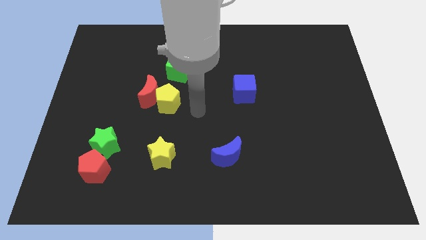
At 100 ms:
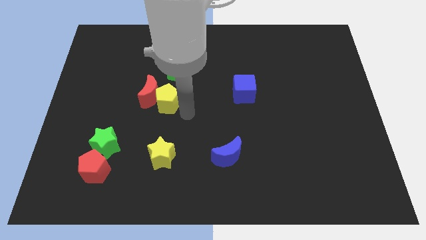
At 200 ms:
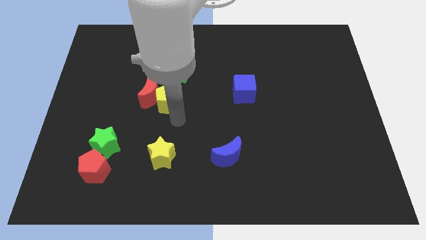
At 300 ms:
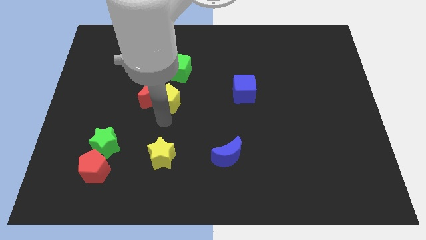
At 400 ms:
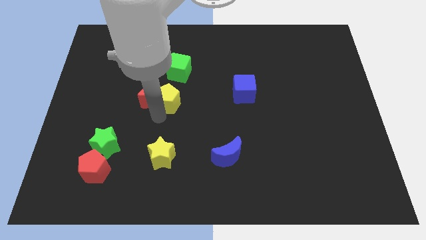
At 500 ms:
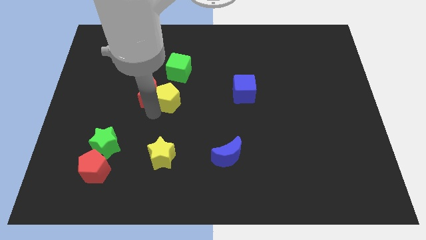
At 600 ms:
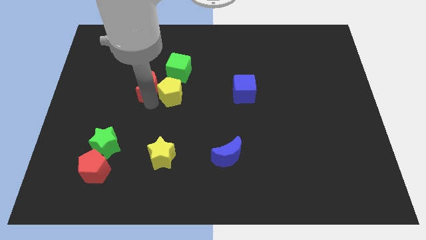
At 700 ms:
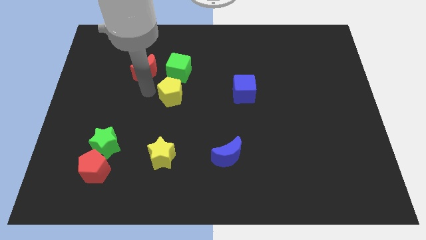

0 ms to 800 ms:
separate the yellow pentagon from the red moon

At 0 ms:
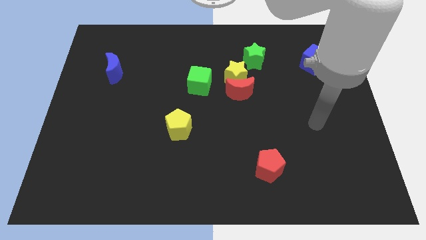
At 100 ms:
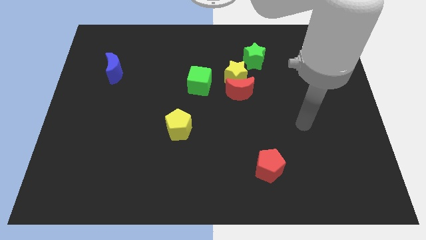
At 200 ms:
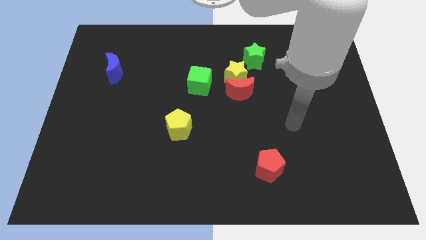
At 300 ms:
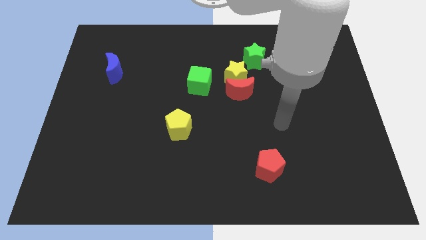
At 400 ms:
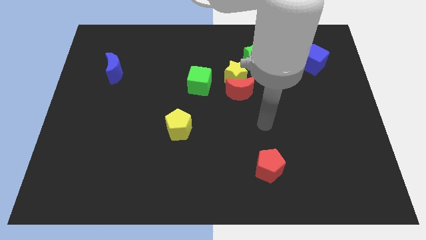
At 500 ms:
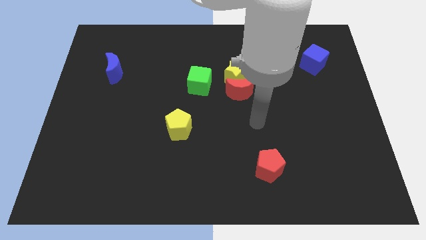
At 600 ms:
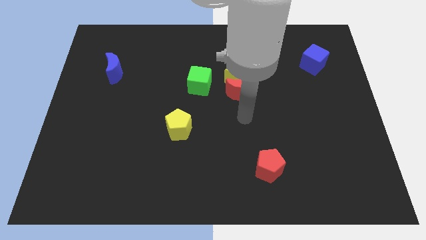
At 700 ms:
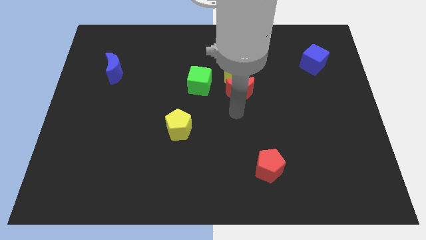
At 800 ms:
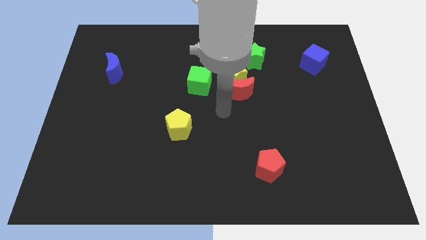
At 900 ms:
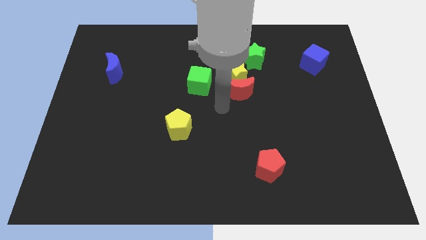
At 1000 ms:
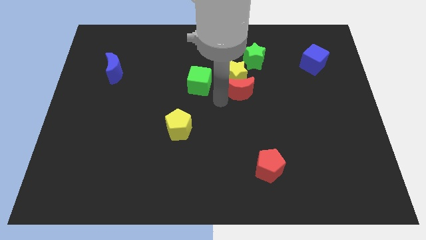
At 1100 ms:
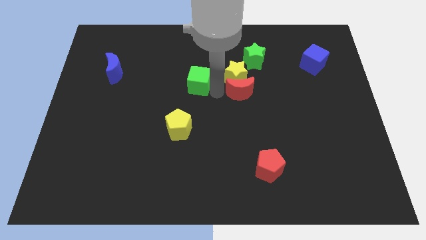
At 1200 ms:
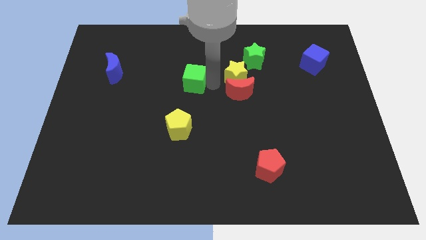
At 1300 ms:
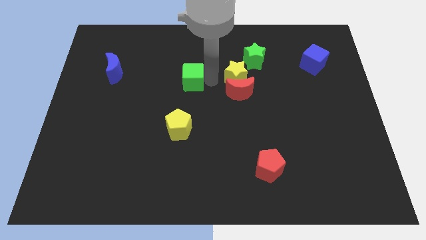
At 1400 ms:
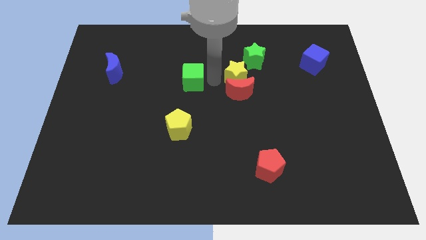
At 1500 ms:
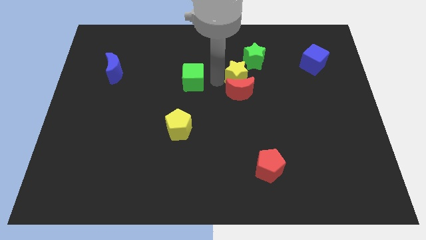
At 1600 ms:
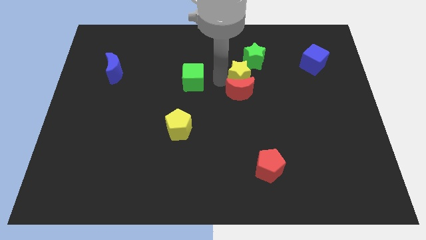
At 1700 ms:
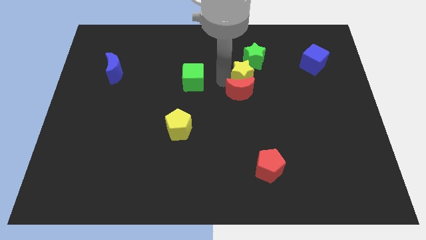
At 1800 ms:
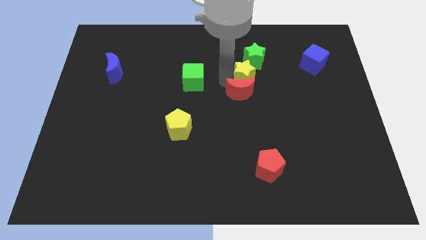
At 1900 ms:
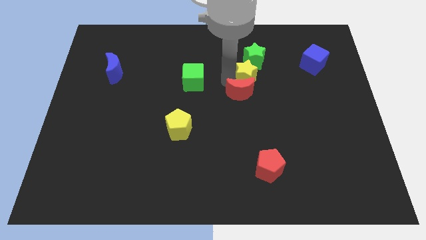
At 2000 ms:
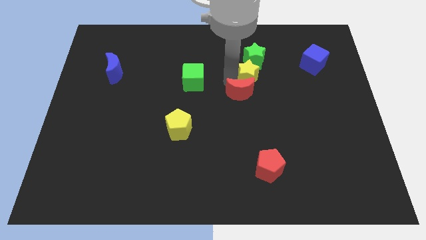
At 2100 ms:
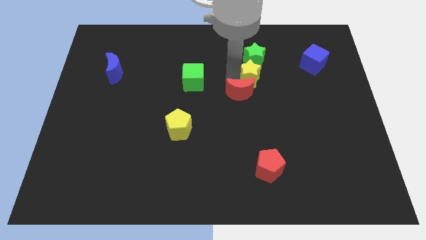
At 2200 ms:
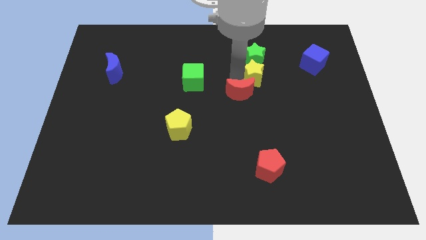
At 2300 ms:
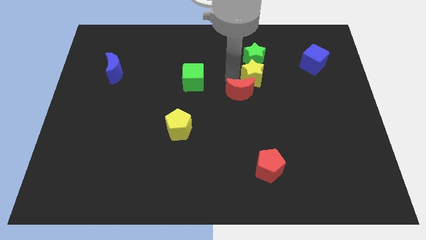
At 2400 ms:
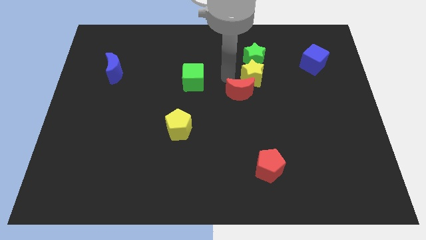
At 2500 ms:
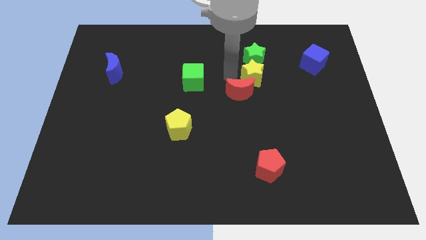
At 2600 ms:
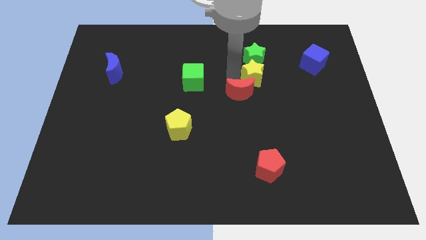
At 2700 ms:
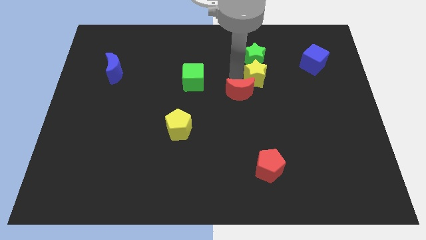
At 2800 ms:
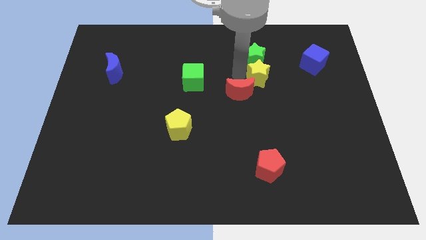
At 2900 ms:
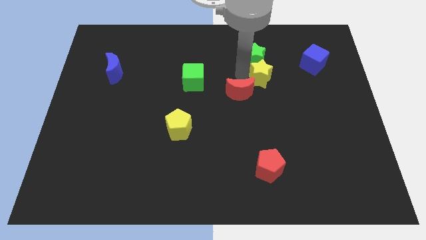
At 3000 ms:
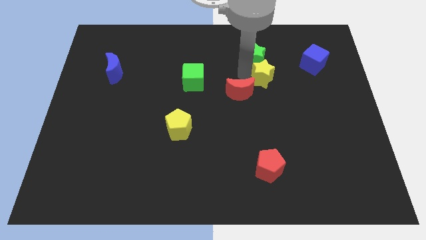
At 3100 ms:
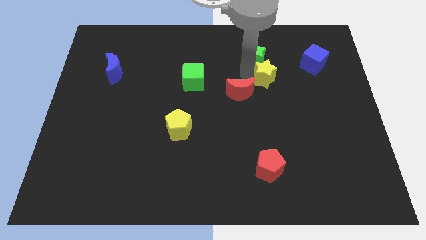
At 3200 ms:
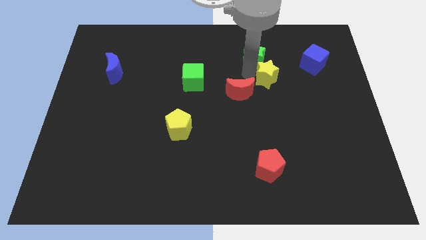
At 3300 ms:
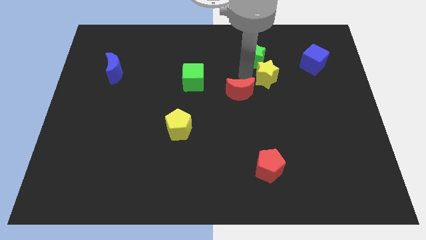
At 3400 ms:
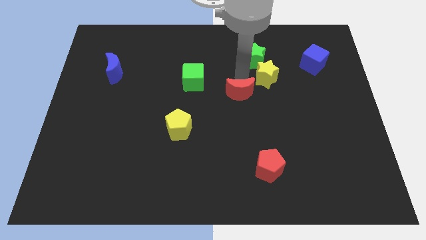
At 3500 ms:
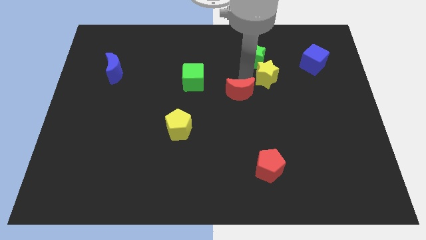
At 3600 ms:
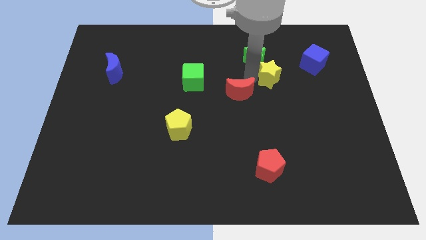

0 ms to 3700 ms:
separate the yellow star from the red moon, green star, and green cube

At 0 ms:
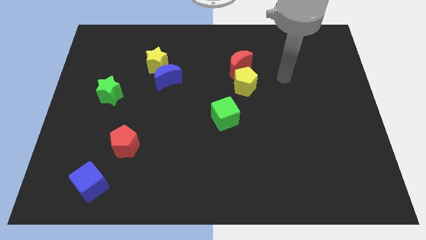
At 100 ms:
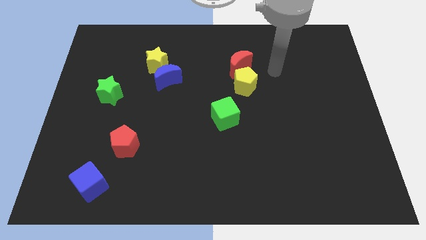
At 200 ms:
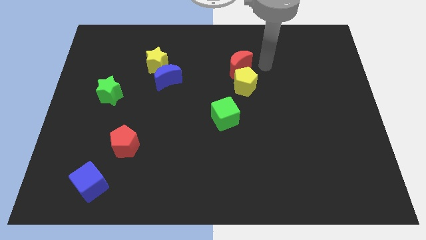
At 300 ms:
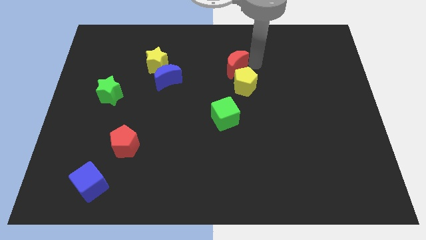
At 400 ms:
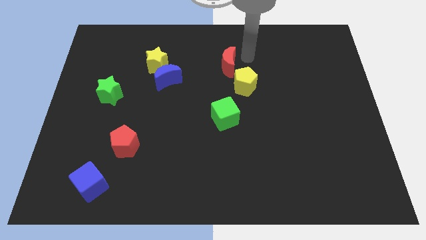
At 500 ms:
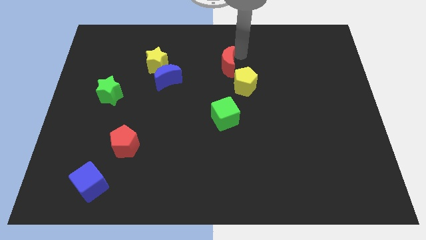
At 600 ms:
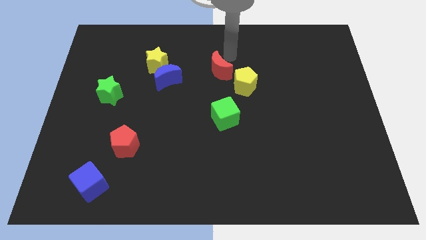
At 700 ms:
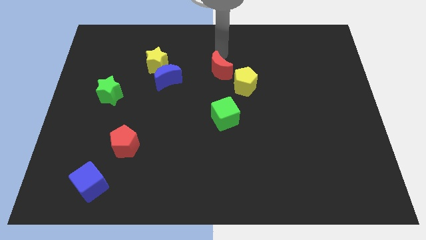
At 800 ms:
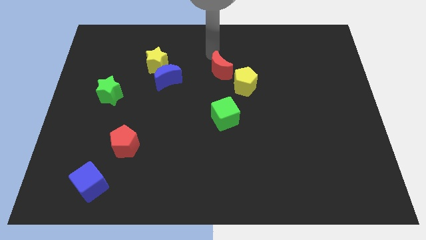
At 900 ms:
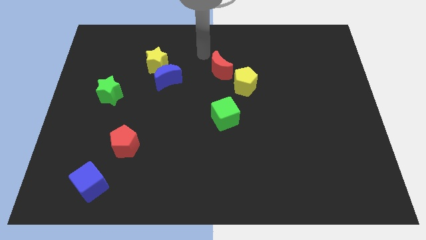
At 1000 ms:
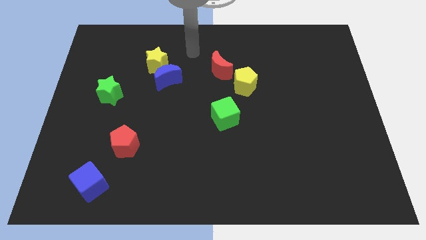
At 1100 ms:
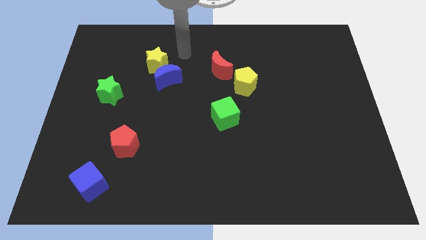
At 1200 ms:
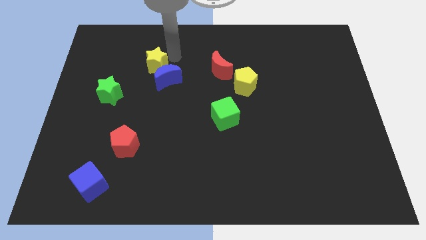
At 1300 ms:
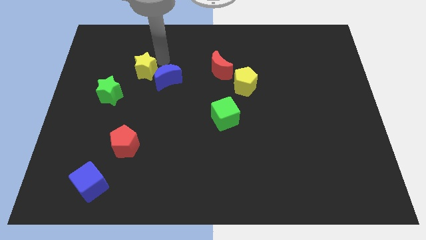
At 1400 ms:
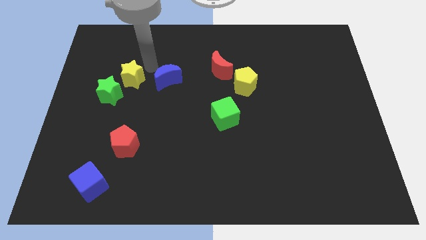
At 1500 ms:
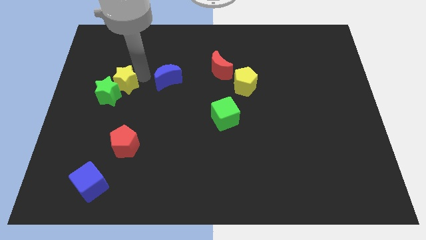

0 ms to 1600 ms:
move the blue moon away from the yellow star

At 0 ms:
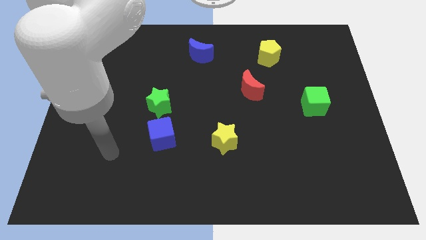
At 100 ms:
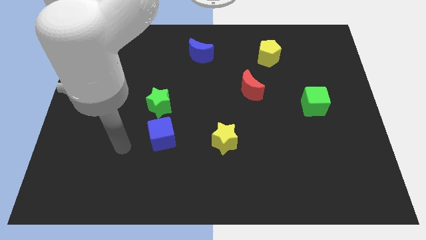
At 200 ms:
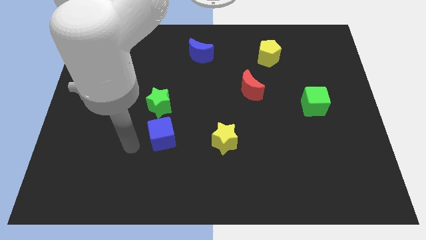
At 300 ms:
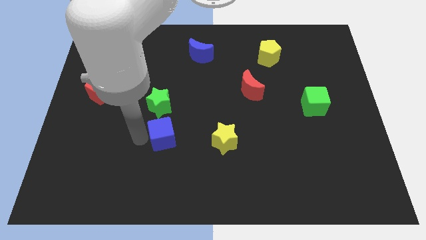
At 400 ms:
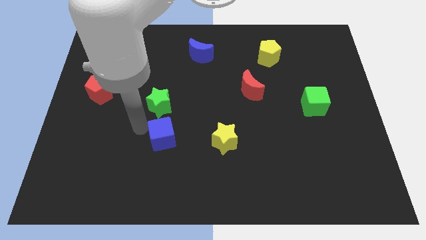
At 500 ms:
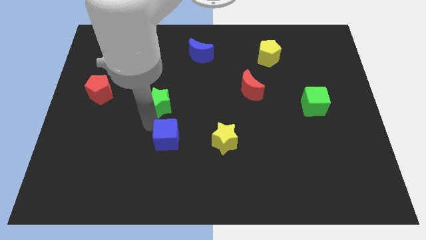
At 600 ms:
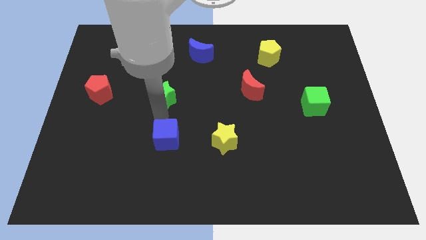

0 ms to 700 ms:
move the blue cube away from the green star

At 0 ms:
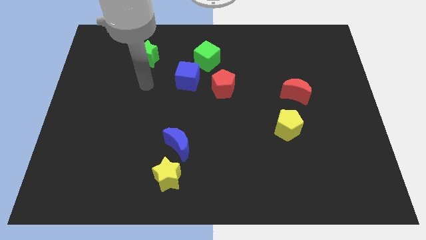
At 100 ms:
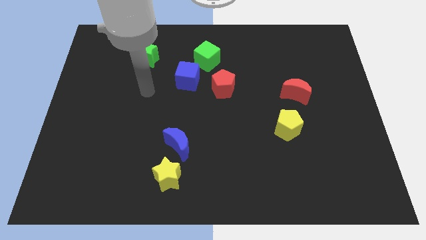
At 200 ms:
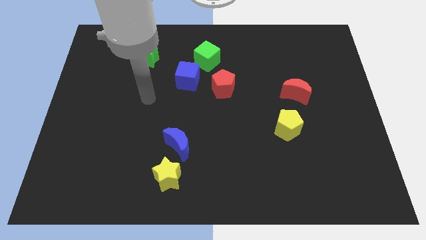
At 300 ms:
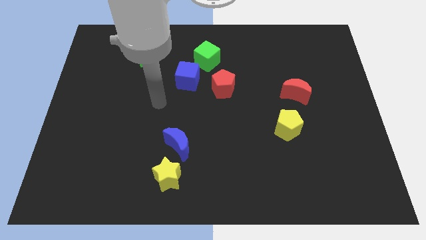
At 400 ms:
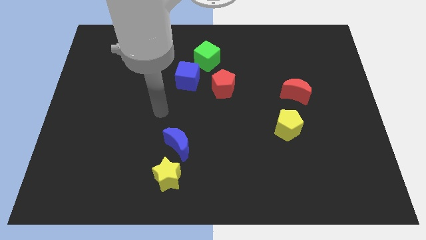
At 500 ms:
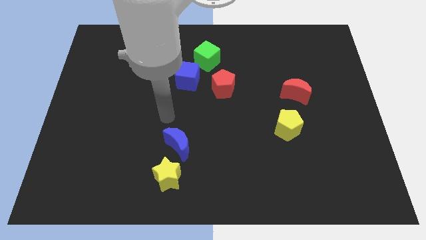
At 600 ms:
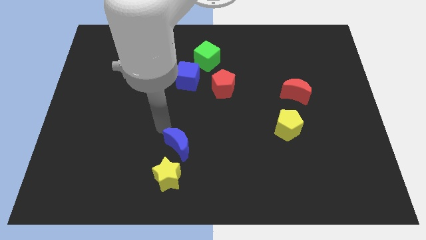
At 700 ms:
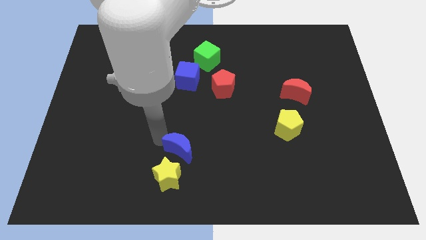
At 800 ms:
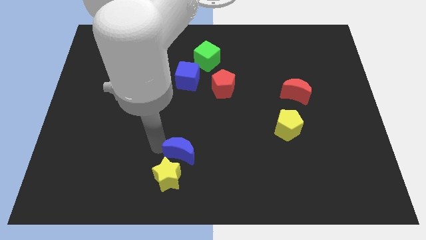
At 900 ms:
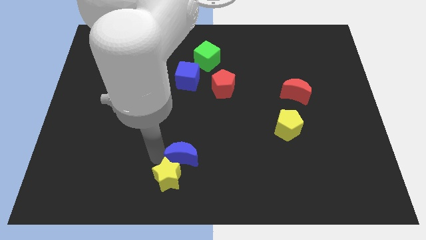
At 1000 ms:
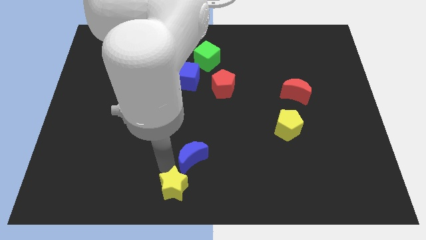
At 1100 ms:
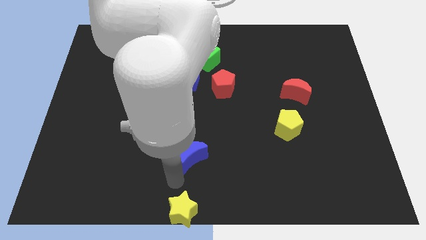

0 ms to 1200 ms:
pull the blue moon apart from the yellow star

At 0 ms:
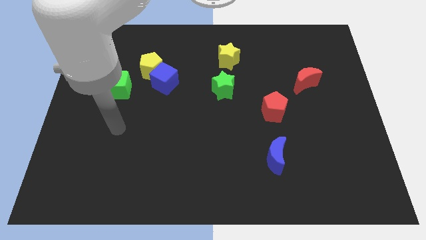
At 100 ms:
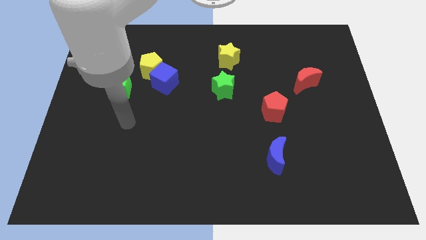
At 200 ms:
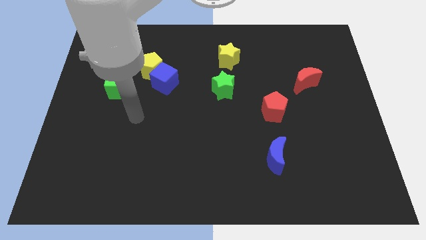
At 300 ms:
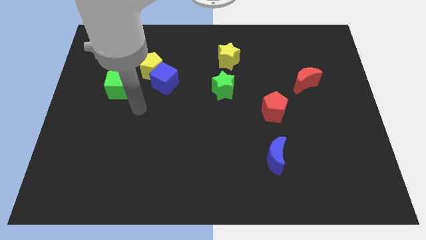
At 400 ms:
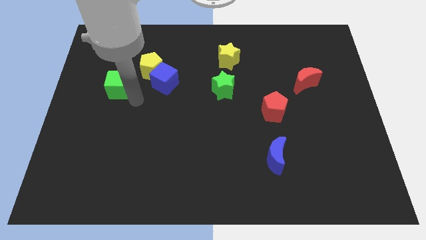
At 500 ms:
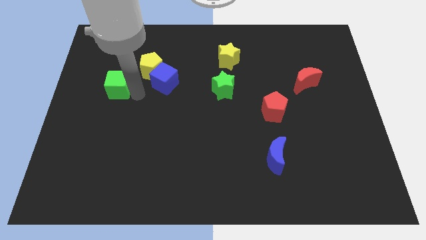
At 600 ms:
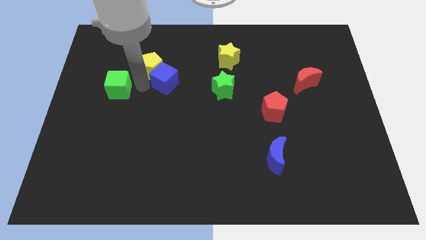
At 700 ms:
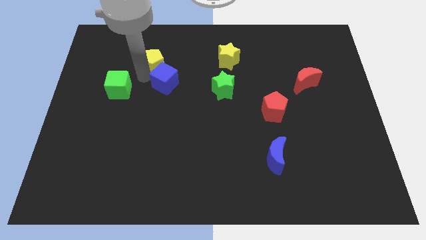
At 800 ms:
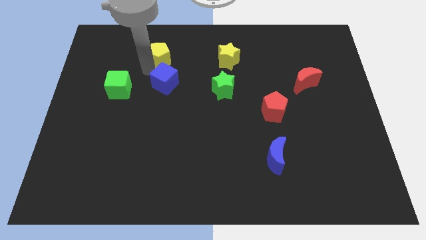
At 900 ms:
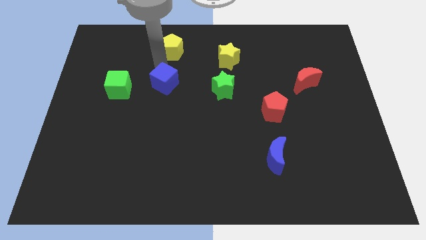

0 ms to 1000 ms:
move the blue cube away from the yellow pentagon

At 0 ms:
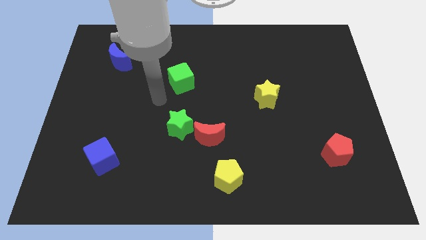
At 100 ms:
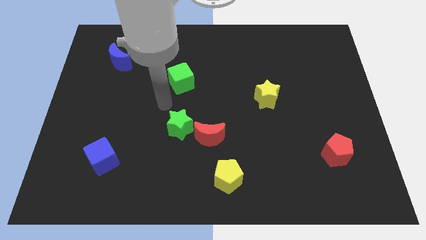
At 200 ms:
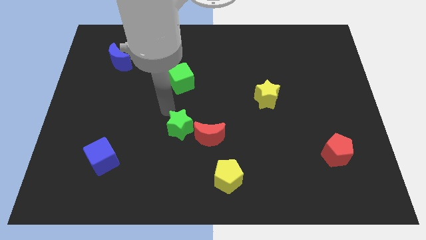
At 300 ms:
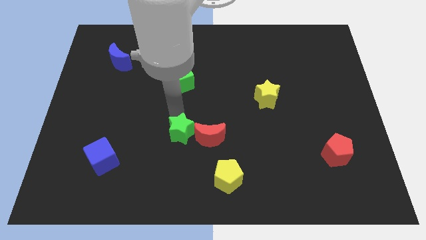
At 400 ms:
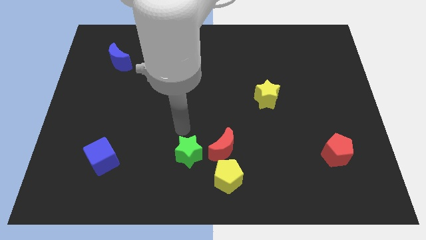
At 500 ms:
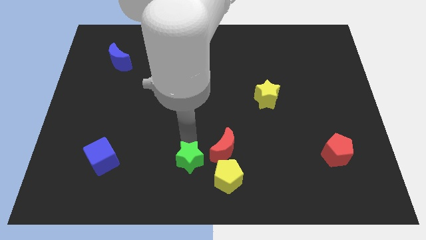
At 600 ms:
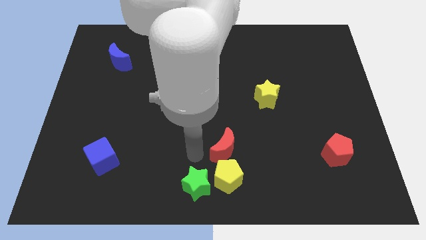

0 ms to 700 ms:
pull the red moon apart from the green star
